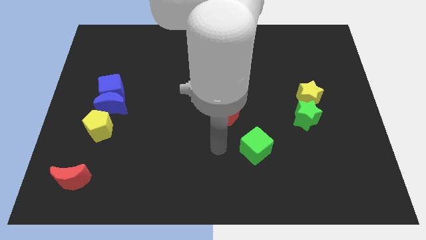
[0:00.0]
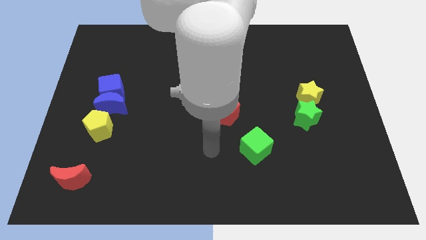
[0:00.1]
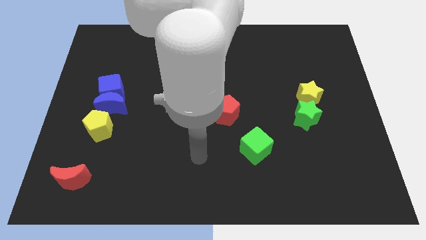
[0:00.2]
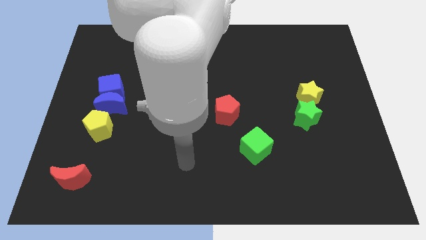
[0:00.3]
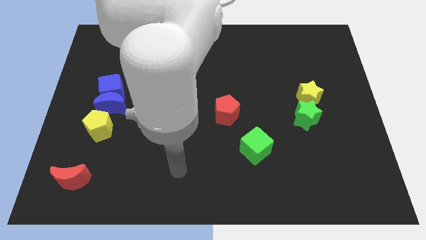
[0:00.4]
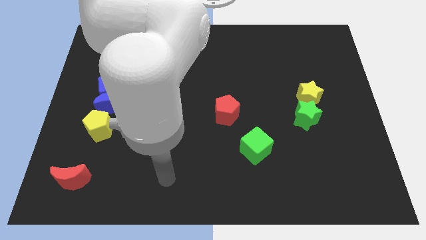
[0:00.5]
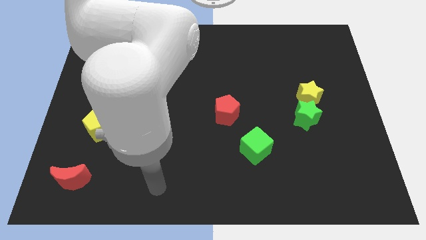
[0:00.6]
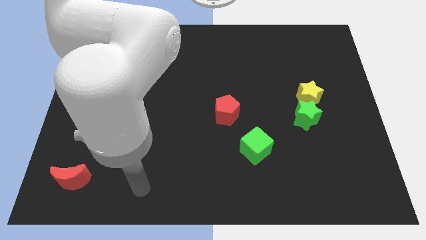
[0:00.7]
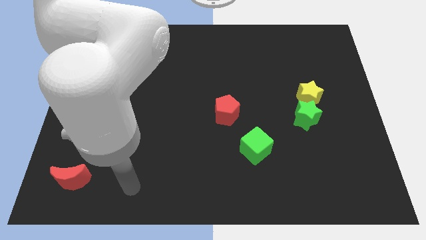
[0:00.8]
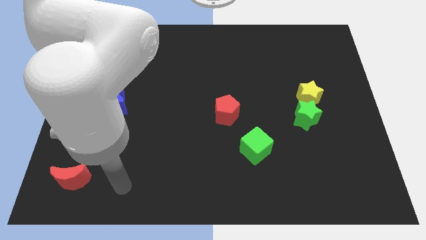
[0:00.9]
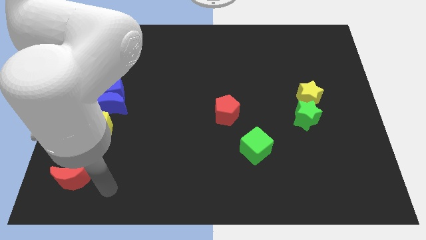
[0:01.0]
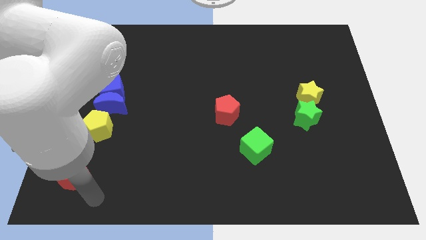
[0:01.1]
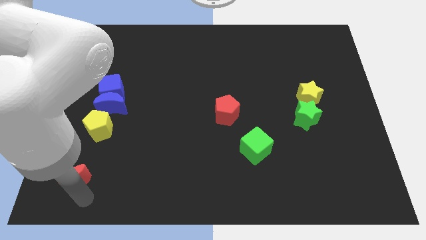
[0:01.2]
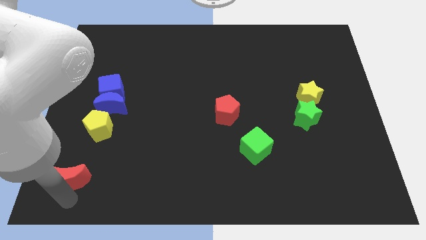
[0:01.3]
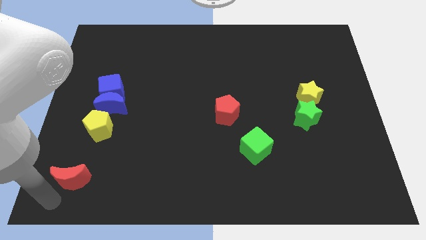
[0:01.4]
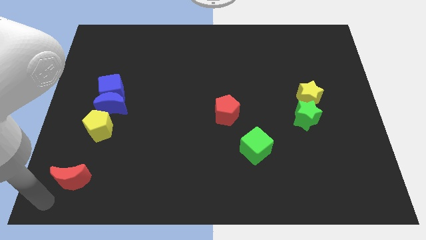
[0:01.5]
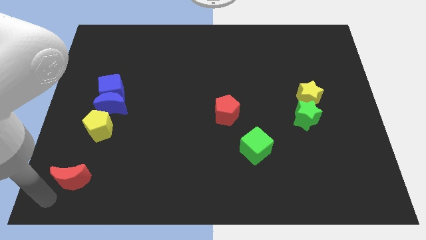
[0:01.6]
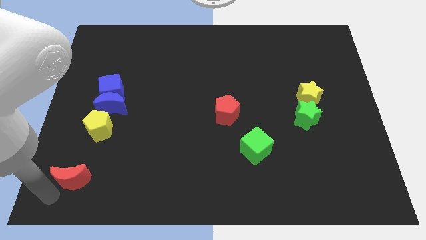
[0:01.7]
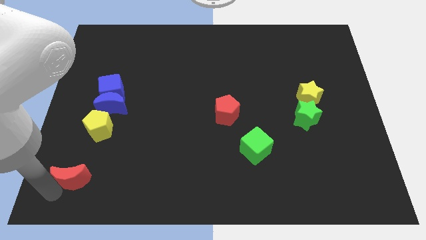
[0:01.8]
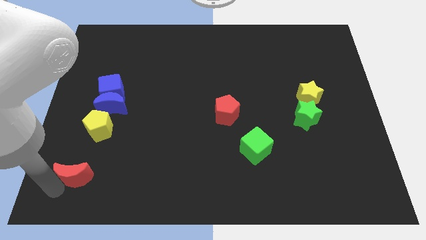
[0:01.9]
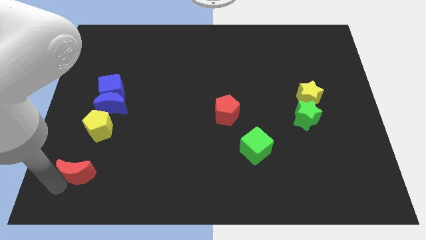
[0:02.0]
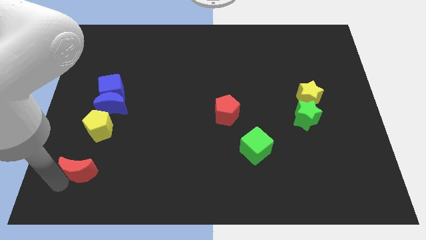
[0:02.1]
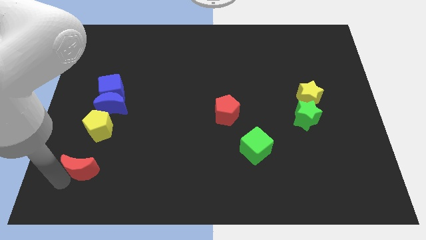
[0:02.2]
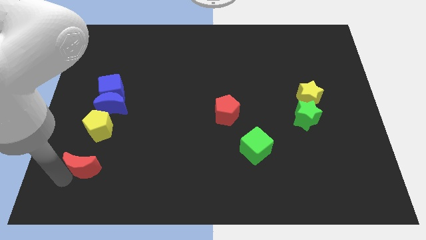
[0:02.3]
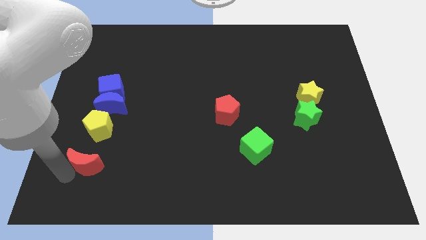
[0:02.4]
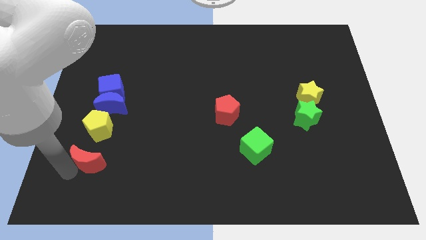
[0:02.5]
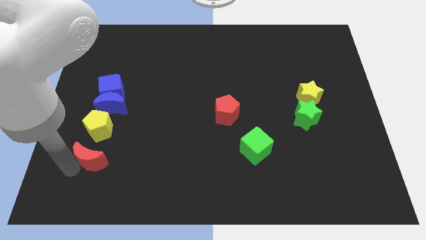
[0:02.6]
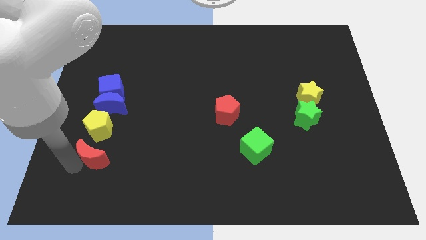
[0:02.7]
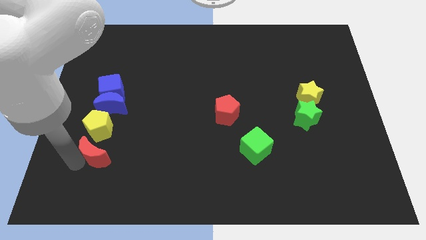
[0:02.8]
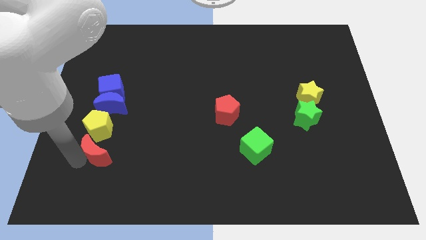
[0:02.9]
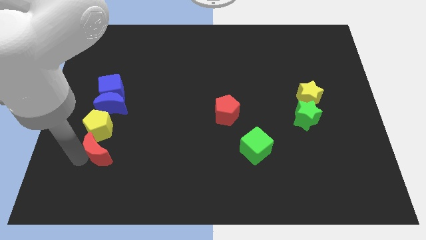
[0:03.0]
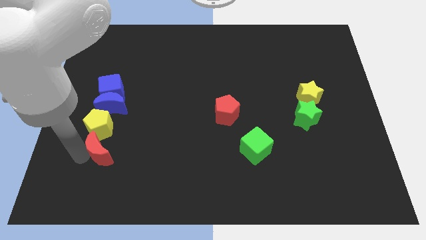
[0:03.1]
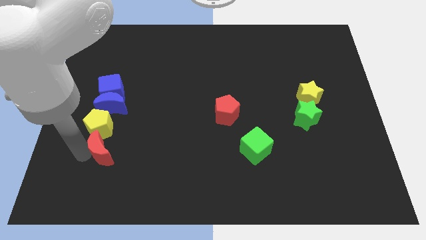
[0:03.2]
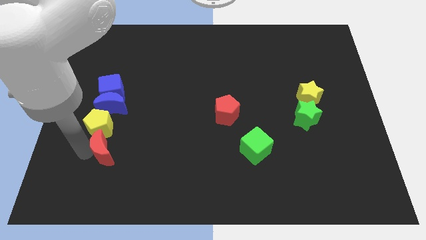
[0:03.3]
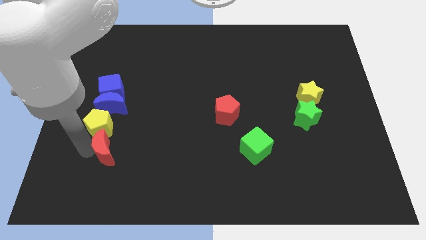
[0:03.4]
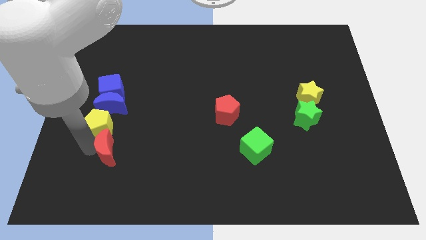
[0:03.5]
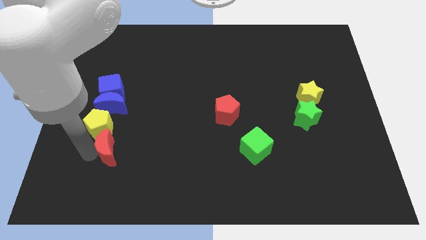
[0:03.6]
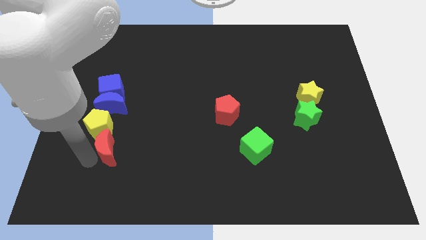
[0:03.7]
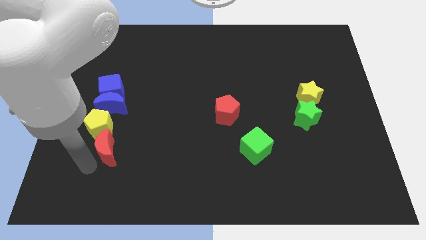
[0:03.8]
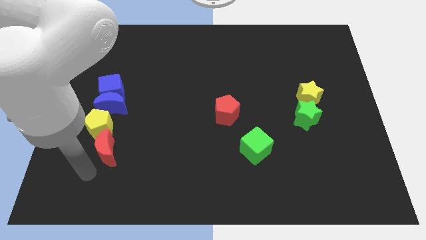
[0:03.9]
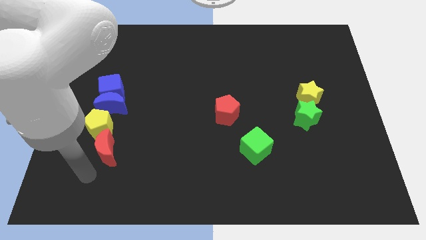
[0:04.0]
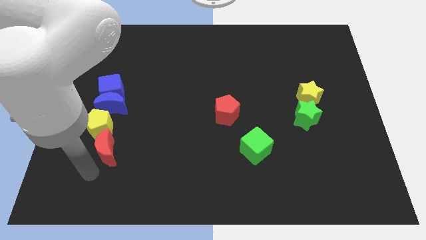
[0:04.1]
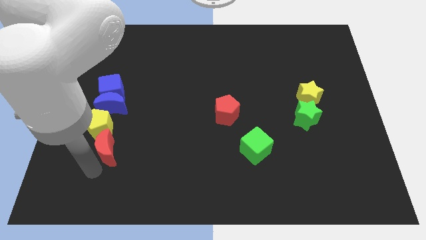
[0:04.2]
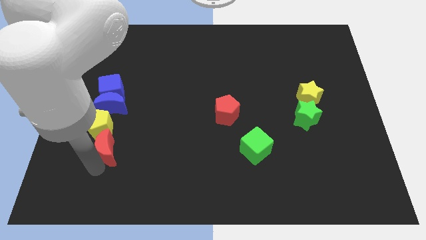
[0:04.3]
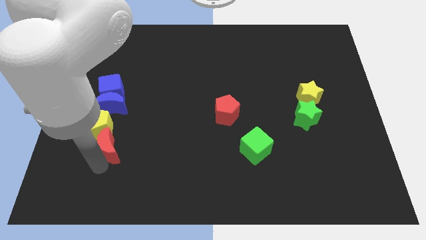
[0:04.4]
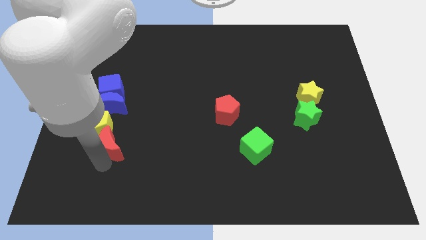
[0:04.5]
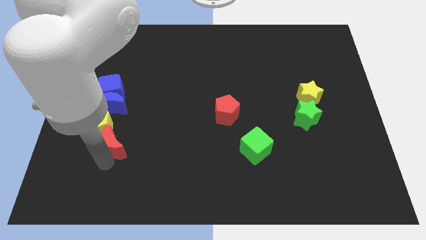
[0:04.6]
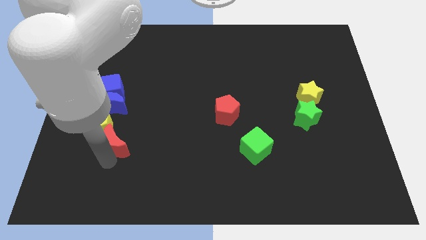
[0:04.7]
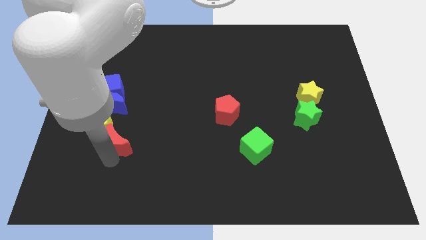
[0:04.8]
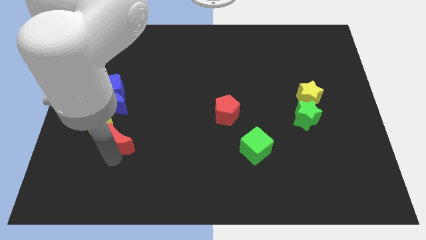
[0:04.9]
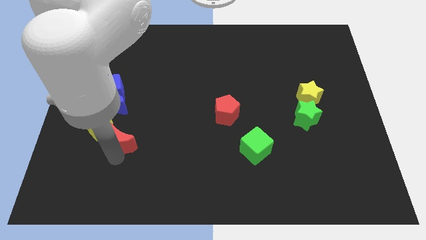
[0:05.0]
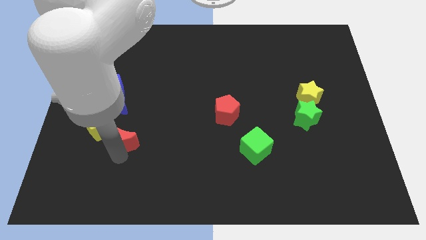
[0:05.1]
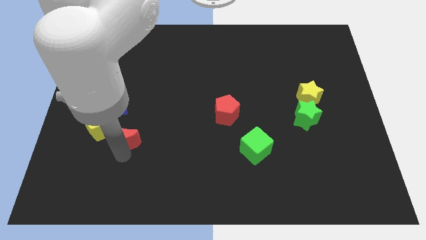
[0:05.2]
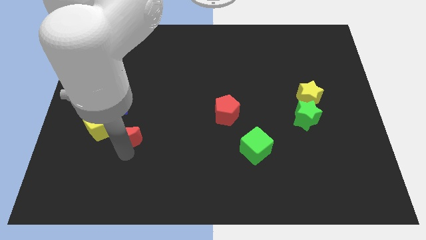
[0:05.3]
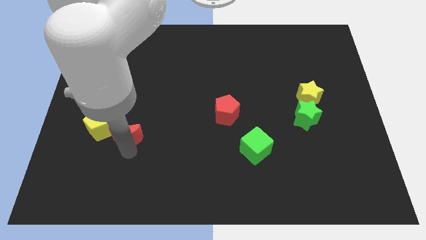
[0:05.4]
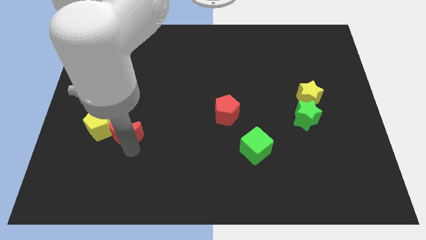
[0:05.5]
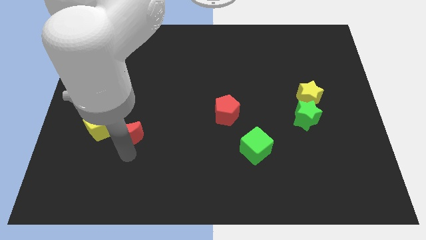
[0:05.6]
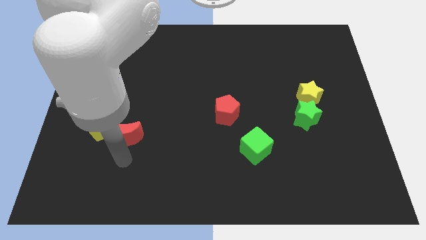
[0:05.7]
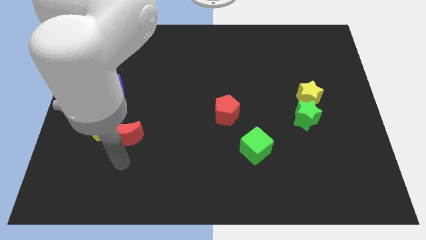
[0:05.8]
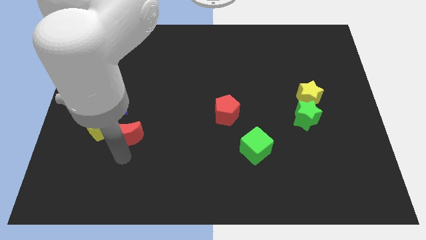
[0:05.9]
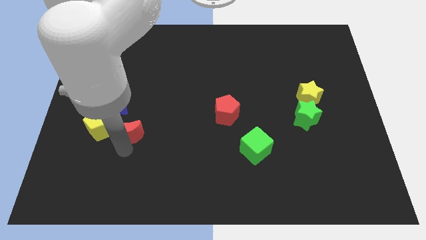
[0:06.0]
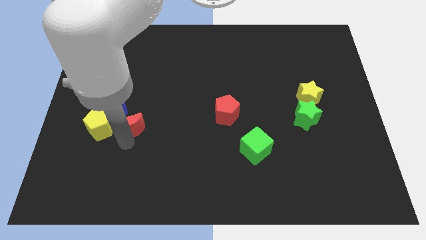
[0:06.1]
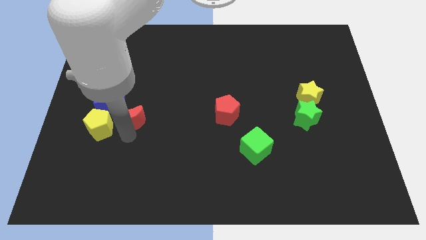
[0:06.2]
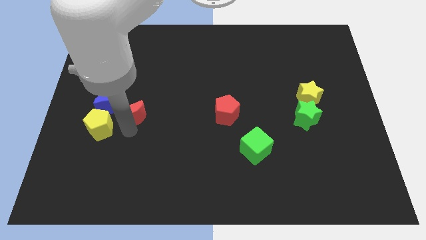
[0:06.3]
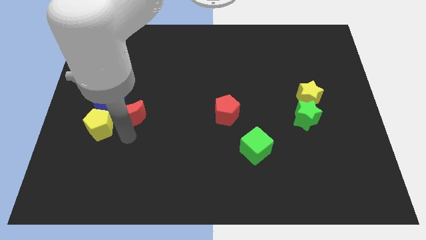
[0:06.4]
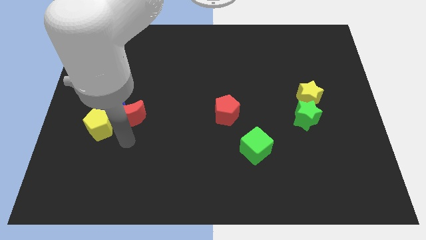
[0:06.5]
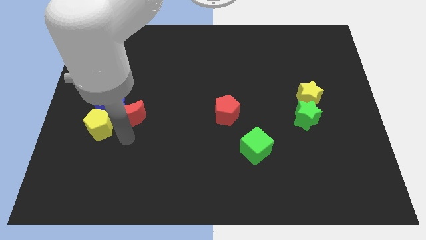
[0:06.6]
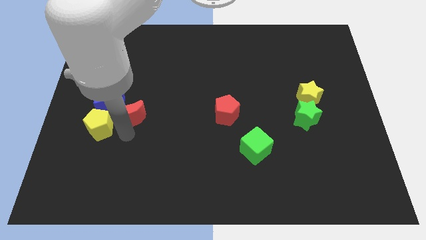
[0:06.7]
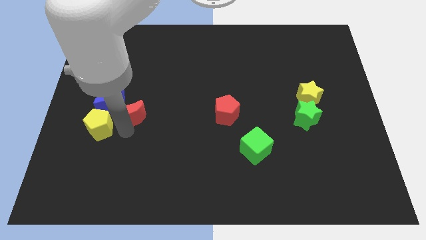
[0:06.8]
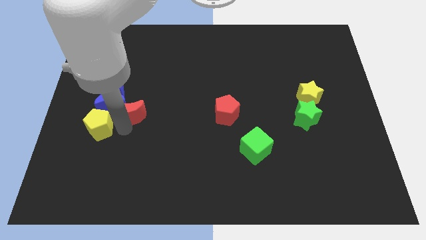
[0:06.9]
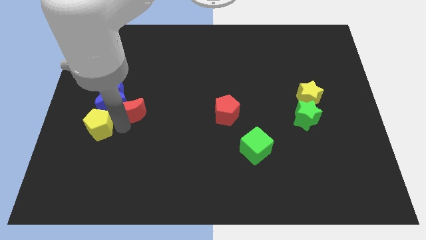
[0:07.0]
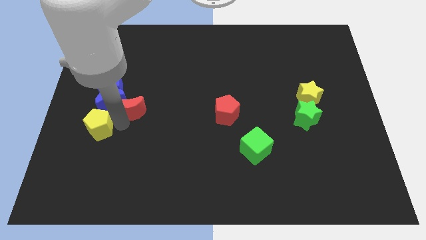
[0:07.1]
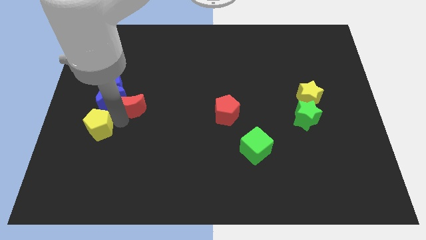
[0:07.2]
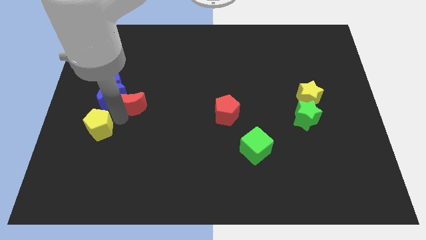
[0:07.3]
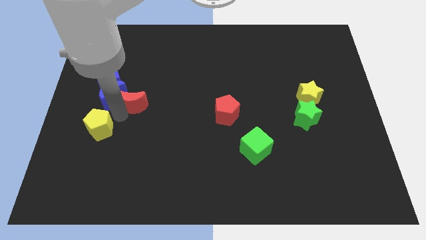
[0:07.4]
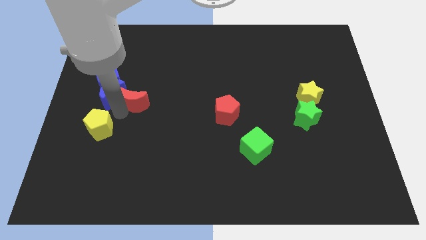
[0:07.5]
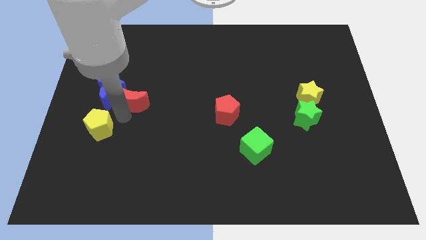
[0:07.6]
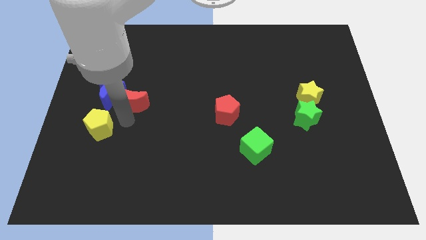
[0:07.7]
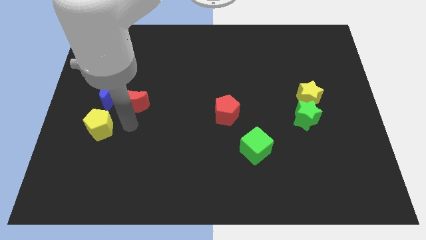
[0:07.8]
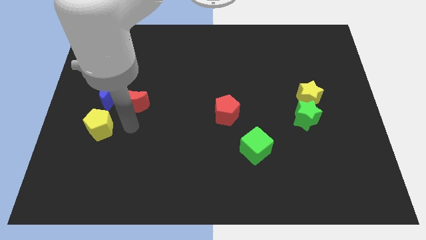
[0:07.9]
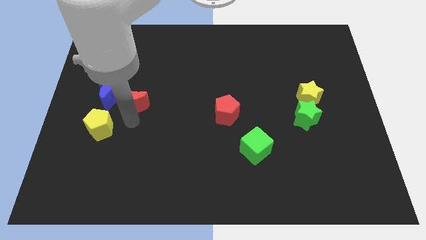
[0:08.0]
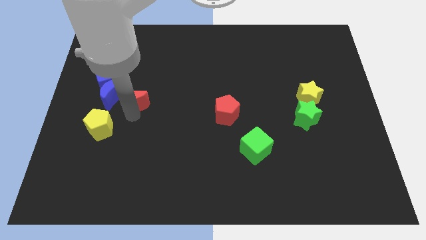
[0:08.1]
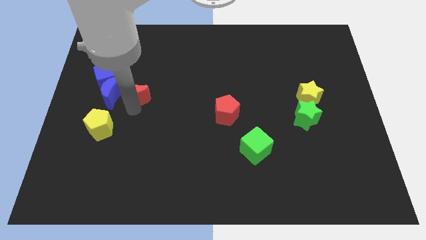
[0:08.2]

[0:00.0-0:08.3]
slide the red moon to the top right side of the blue moon
